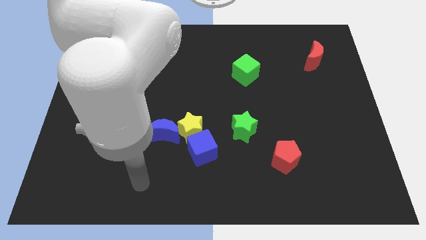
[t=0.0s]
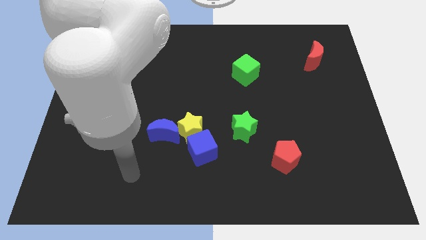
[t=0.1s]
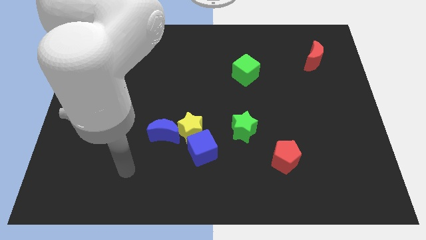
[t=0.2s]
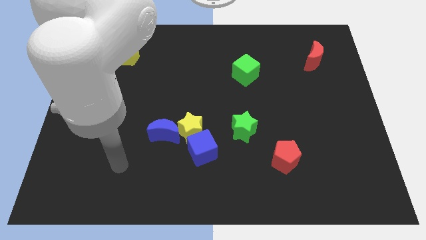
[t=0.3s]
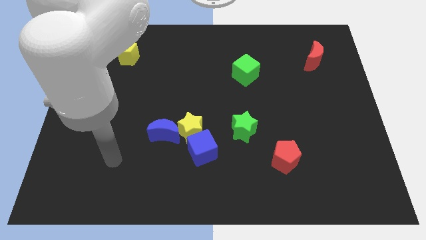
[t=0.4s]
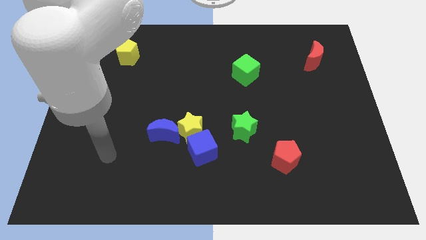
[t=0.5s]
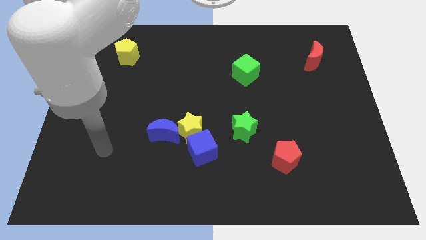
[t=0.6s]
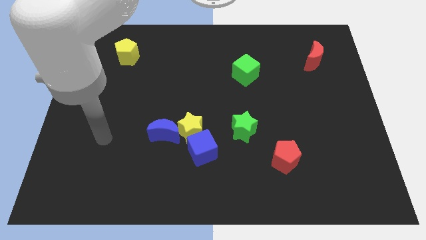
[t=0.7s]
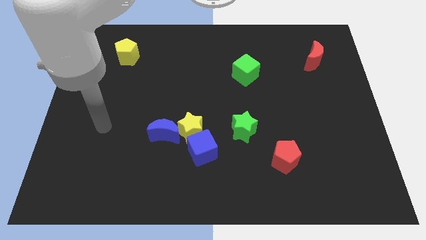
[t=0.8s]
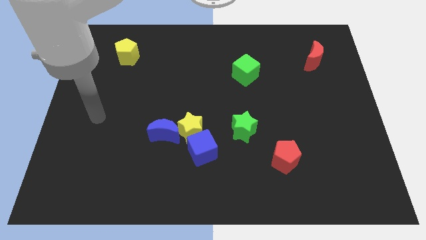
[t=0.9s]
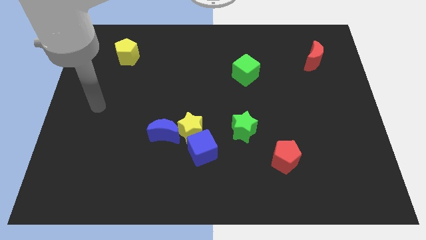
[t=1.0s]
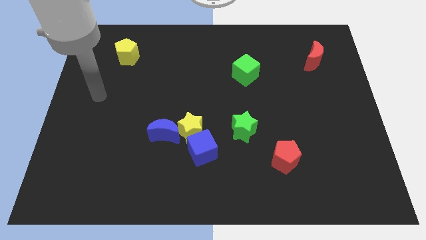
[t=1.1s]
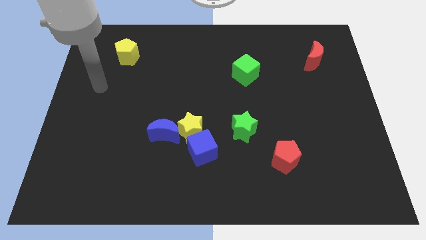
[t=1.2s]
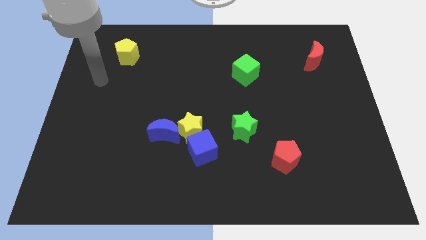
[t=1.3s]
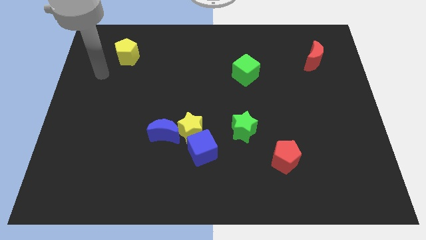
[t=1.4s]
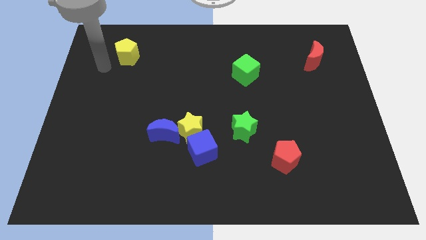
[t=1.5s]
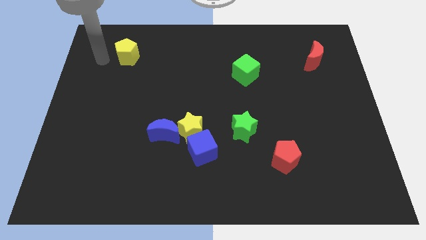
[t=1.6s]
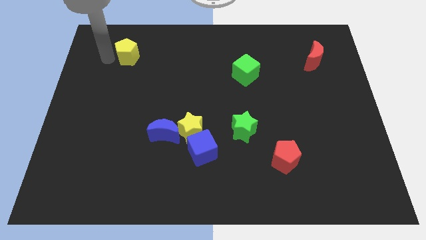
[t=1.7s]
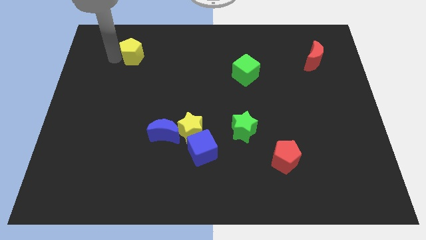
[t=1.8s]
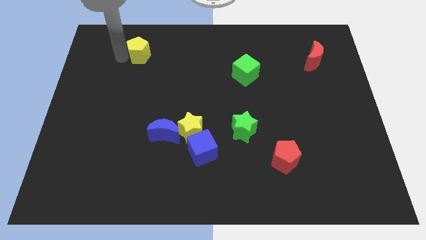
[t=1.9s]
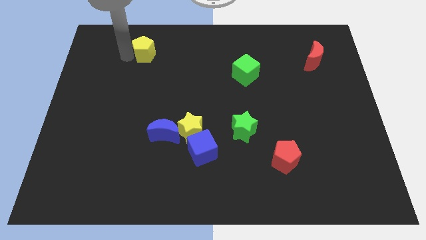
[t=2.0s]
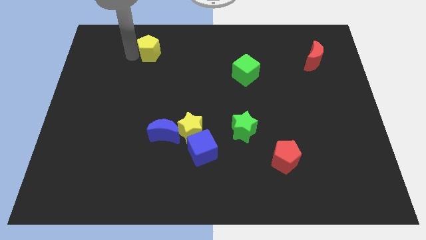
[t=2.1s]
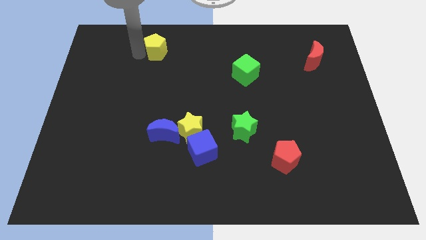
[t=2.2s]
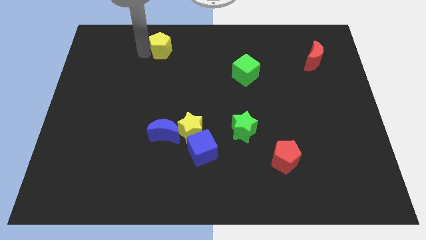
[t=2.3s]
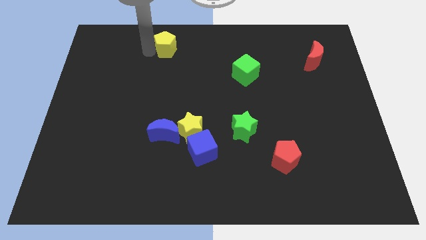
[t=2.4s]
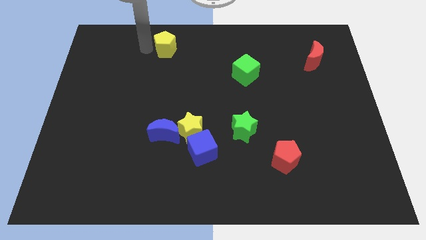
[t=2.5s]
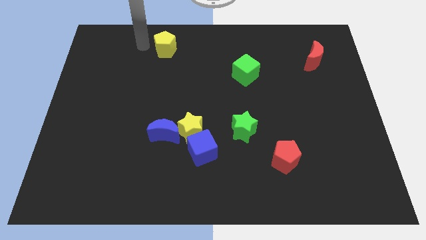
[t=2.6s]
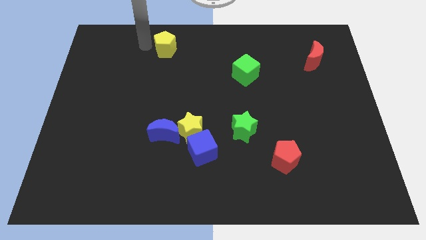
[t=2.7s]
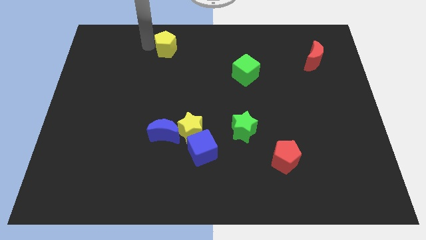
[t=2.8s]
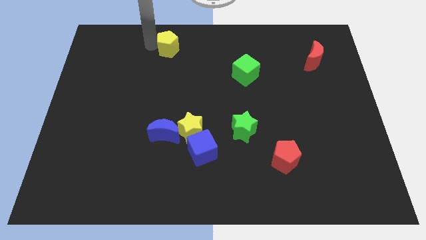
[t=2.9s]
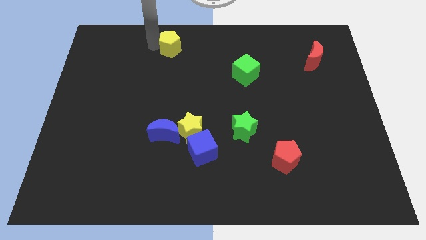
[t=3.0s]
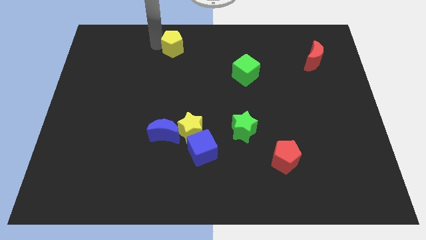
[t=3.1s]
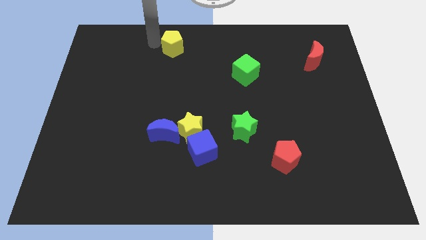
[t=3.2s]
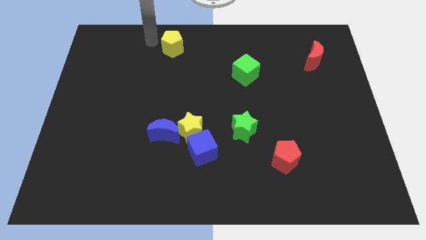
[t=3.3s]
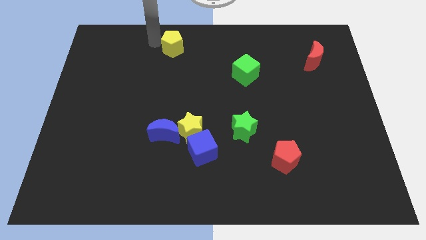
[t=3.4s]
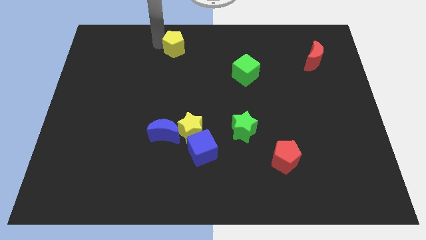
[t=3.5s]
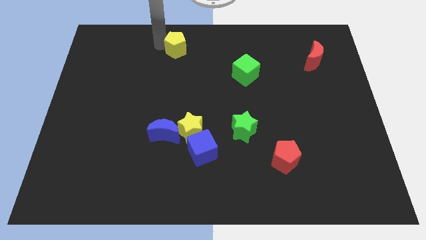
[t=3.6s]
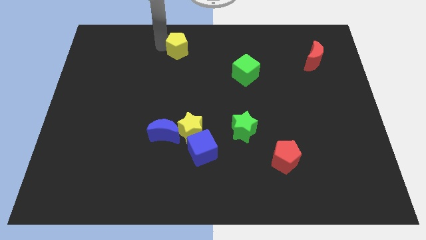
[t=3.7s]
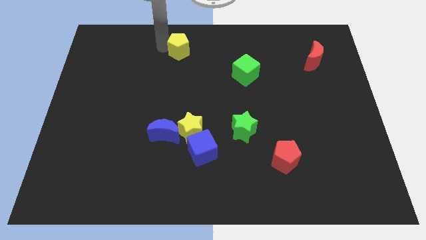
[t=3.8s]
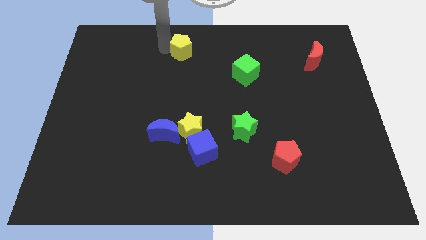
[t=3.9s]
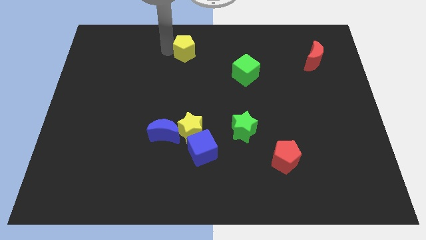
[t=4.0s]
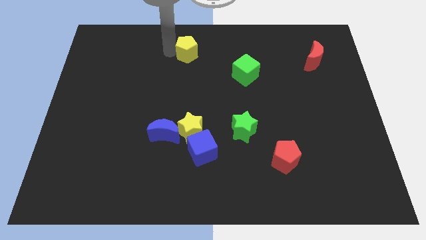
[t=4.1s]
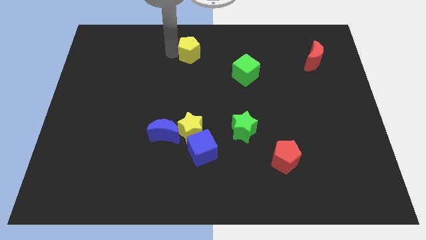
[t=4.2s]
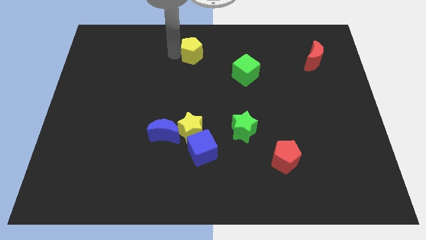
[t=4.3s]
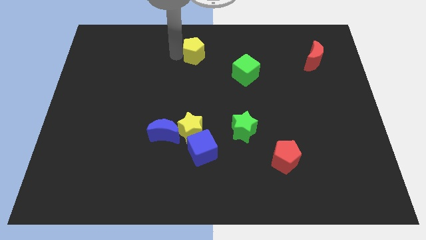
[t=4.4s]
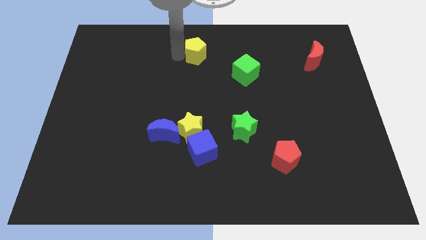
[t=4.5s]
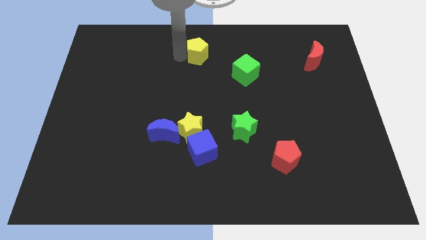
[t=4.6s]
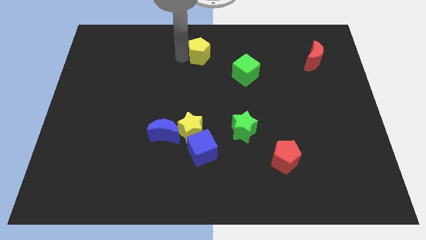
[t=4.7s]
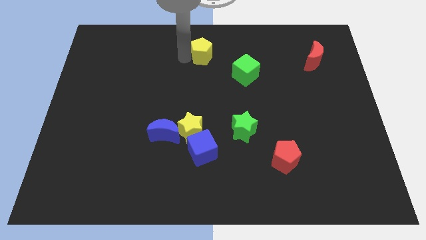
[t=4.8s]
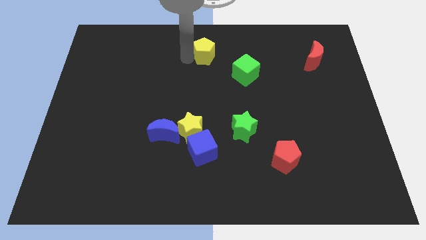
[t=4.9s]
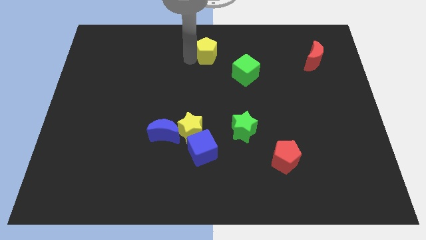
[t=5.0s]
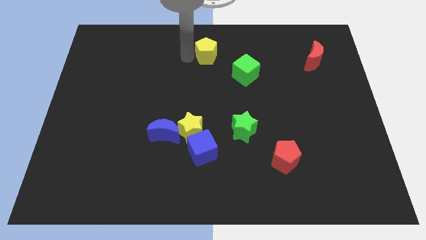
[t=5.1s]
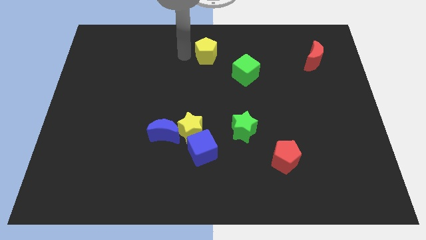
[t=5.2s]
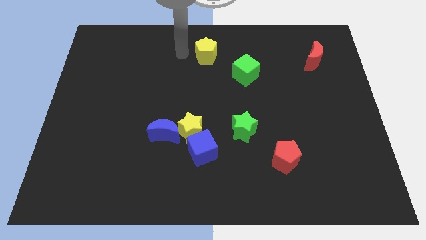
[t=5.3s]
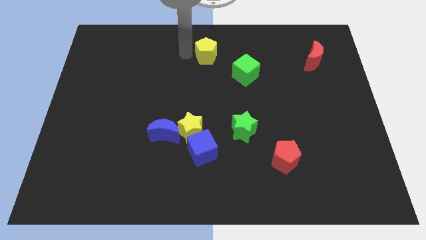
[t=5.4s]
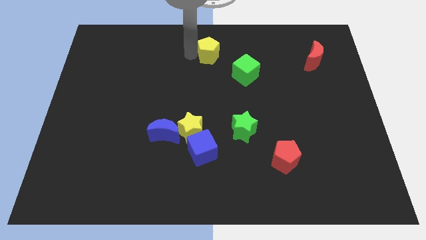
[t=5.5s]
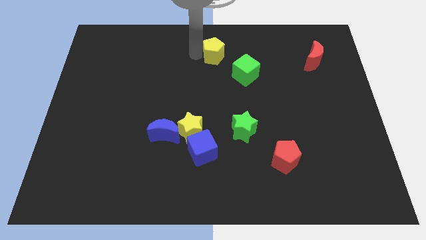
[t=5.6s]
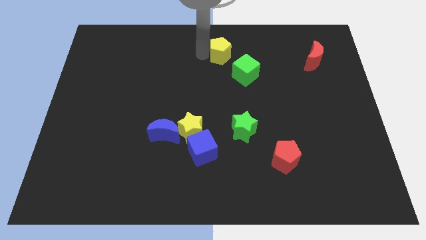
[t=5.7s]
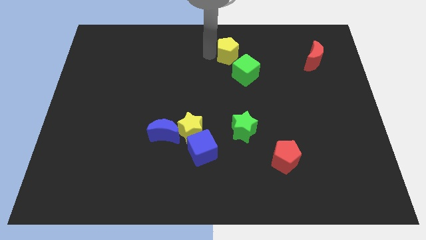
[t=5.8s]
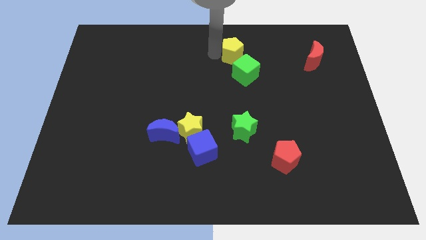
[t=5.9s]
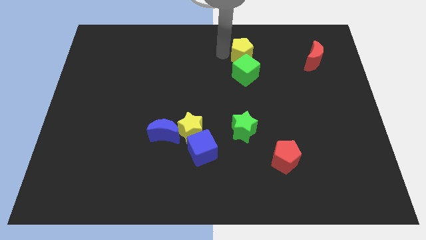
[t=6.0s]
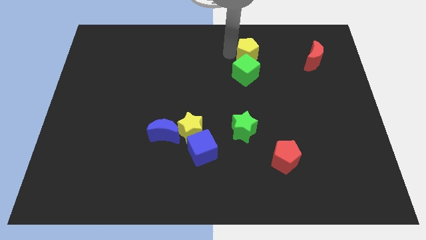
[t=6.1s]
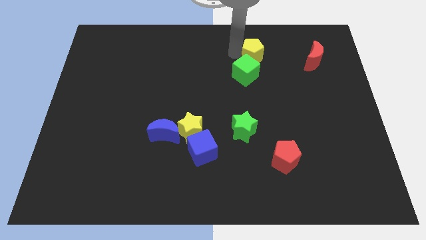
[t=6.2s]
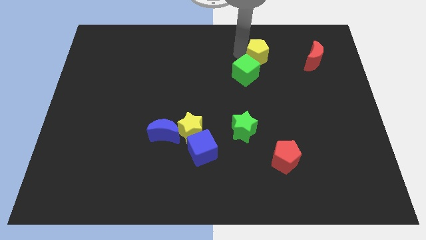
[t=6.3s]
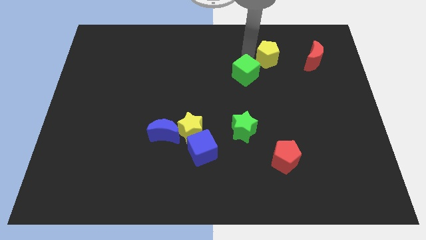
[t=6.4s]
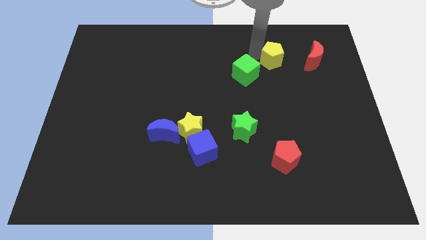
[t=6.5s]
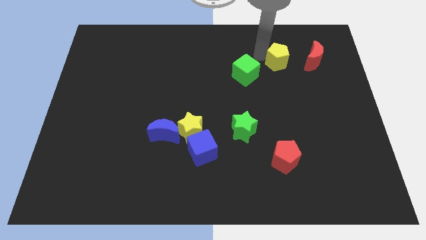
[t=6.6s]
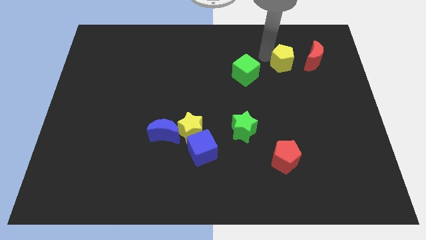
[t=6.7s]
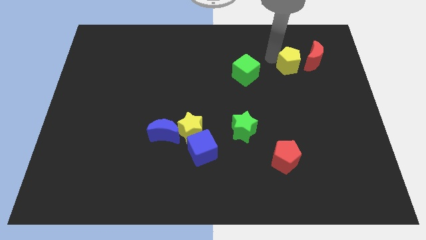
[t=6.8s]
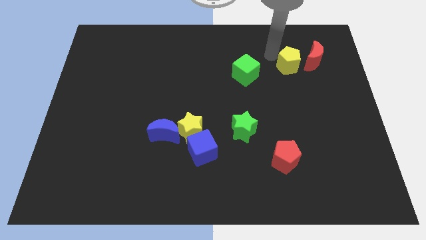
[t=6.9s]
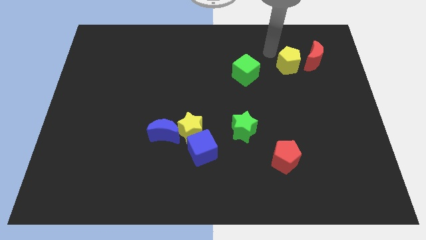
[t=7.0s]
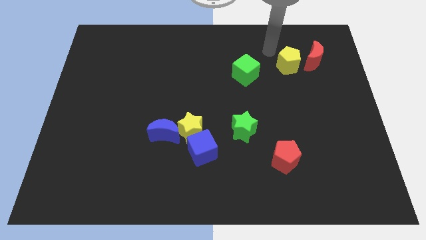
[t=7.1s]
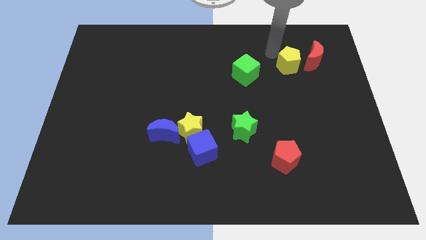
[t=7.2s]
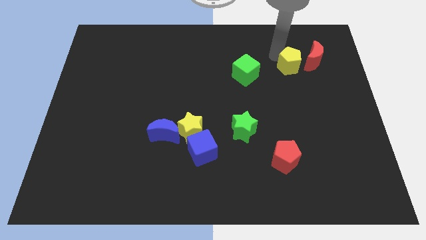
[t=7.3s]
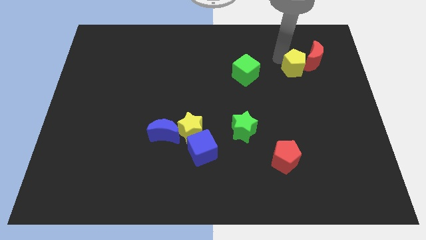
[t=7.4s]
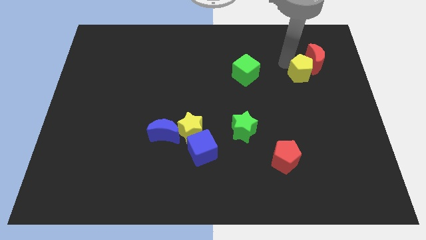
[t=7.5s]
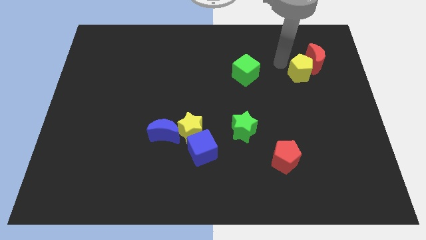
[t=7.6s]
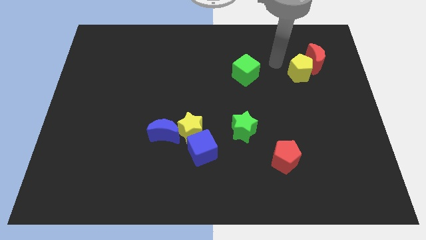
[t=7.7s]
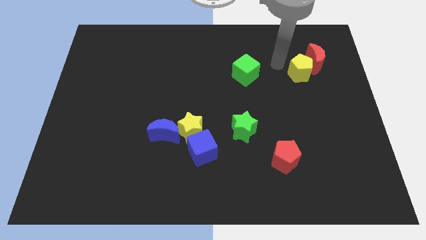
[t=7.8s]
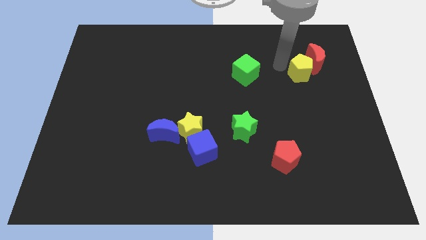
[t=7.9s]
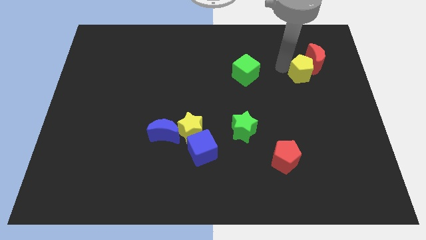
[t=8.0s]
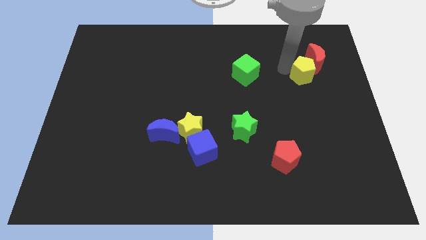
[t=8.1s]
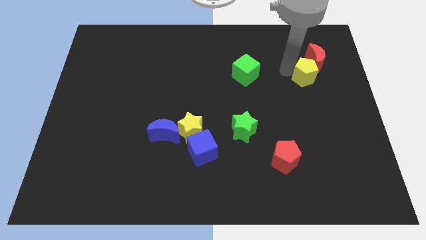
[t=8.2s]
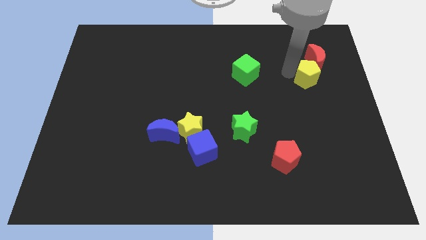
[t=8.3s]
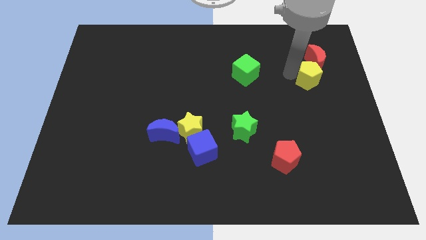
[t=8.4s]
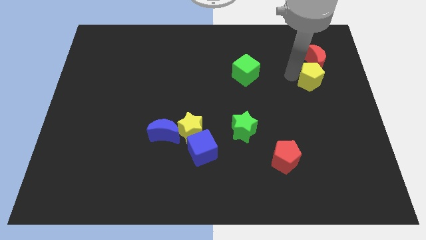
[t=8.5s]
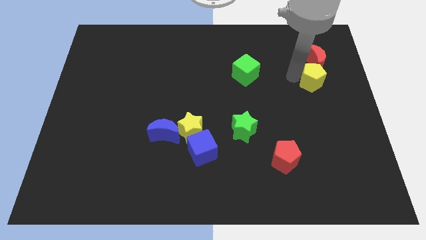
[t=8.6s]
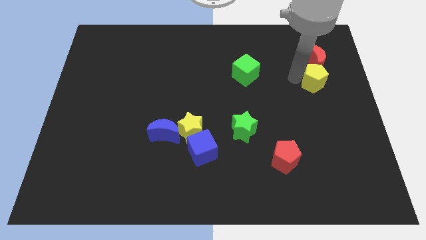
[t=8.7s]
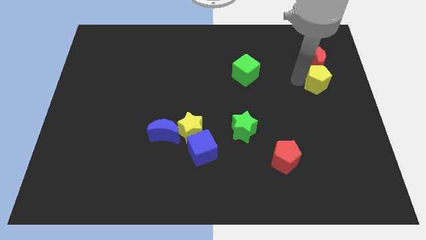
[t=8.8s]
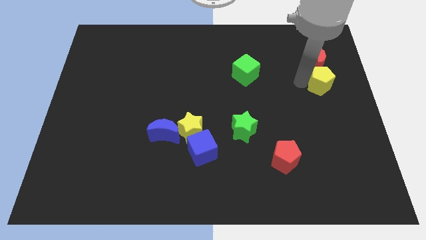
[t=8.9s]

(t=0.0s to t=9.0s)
slide the yellow pentagon to the center right
